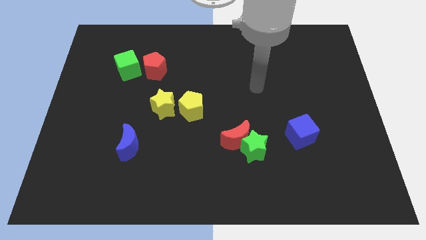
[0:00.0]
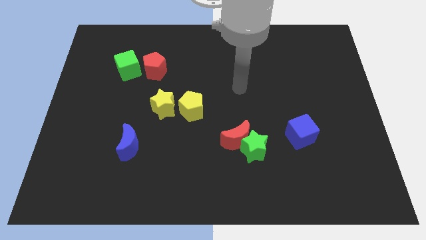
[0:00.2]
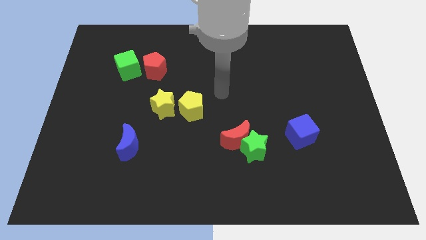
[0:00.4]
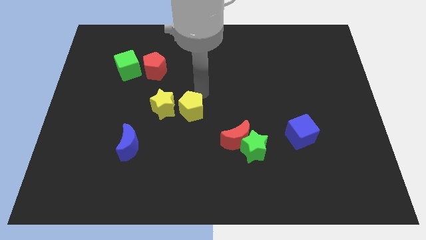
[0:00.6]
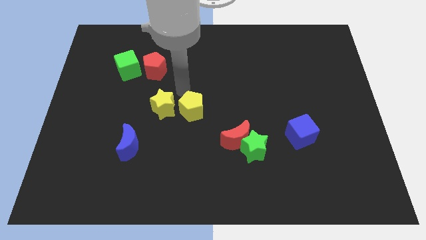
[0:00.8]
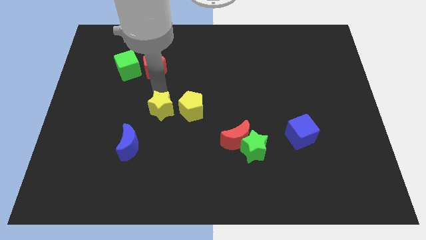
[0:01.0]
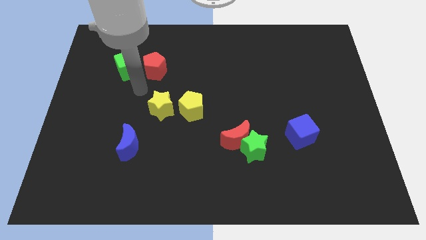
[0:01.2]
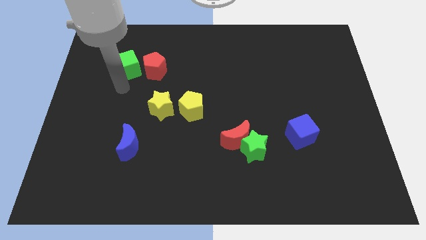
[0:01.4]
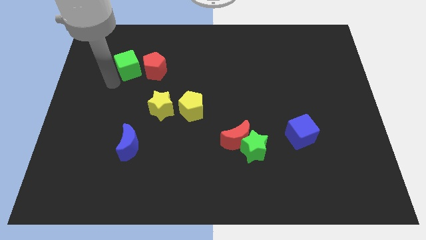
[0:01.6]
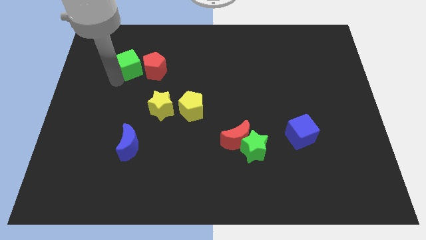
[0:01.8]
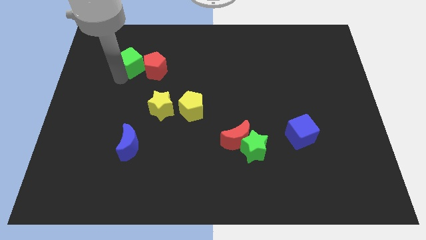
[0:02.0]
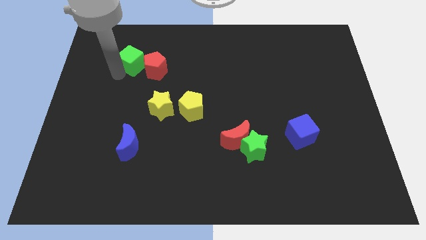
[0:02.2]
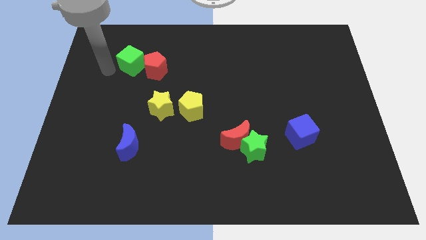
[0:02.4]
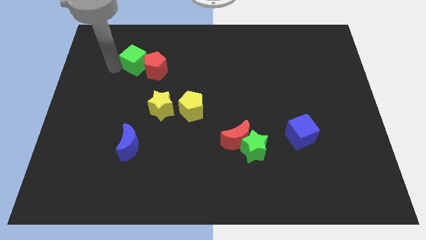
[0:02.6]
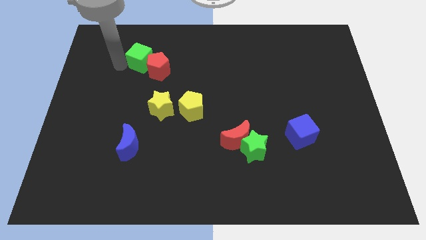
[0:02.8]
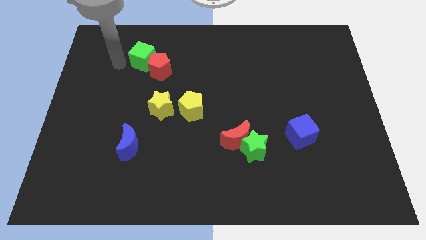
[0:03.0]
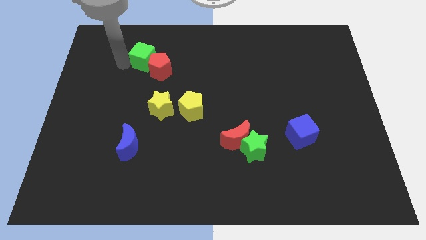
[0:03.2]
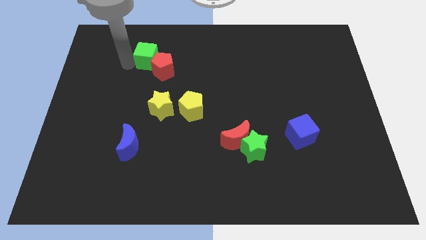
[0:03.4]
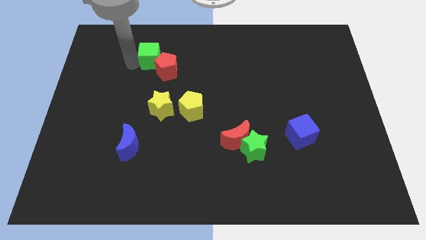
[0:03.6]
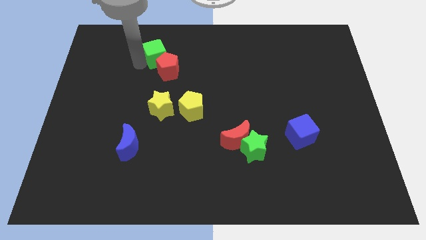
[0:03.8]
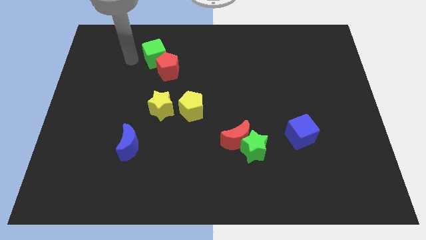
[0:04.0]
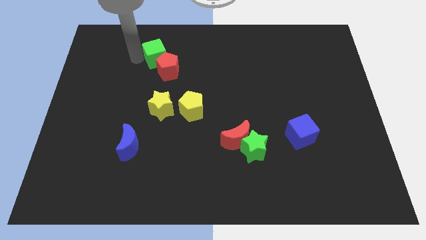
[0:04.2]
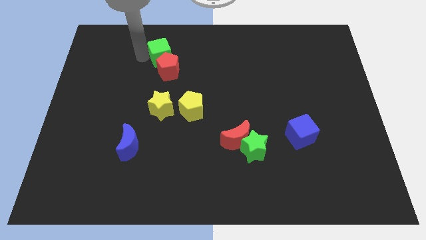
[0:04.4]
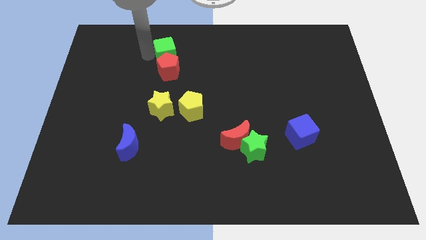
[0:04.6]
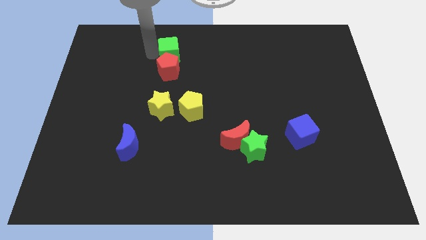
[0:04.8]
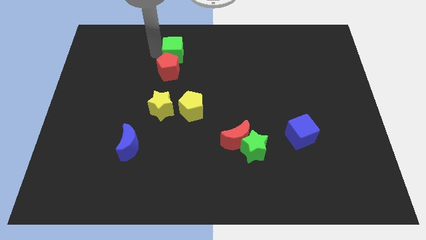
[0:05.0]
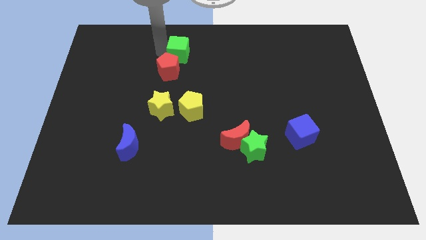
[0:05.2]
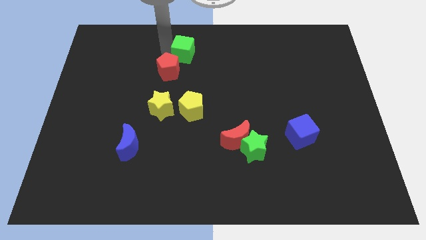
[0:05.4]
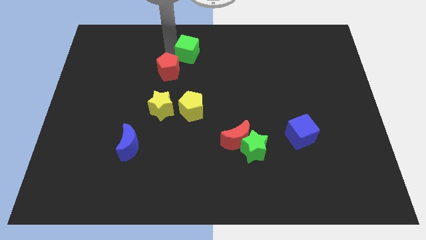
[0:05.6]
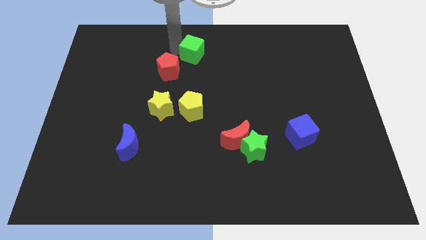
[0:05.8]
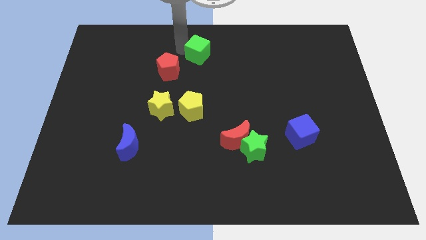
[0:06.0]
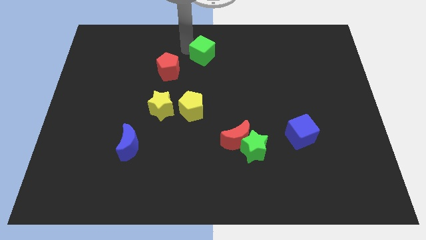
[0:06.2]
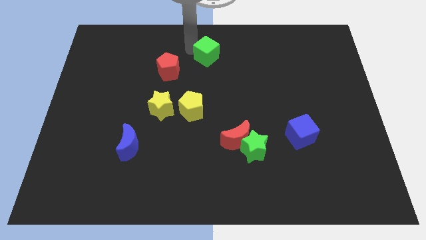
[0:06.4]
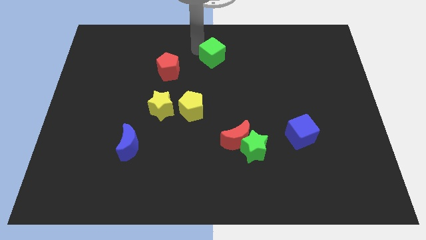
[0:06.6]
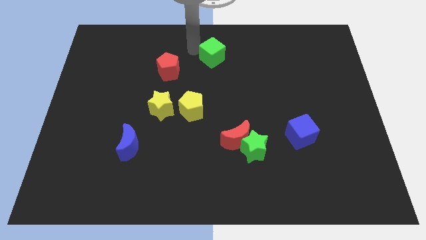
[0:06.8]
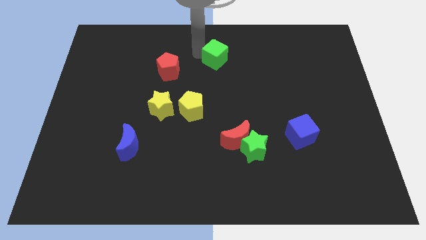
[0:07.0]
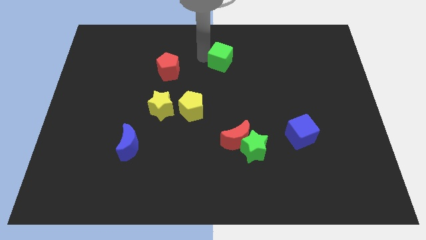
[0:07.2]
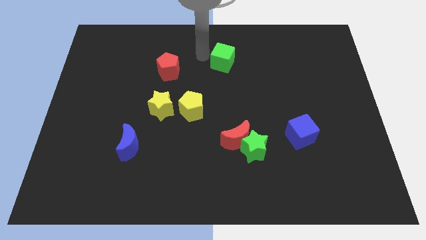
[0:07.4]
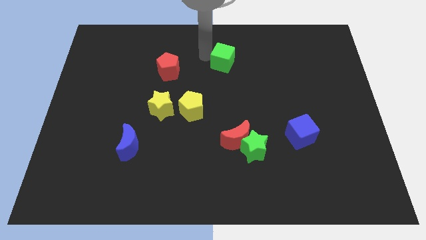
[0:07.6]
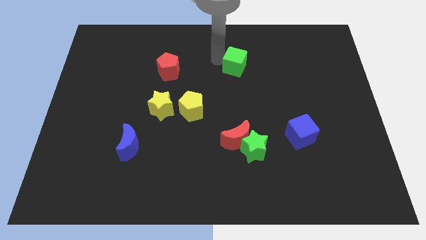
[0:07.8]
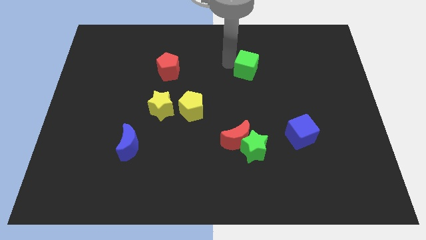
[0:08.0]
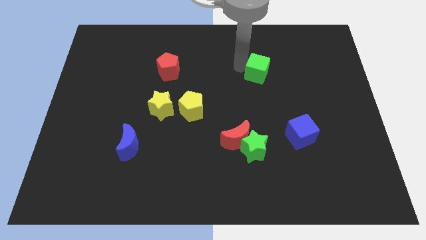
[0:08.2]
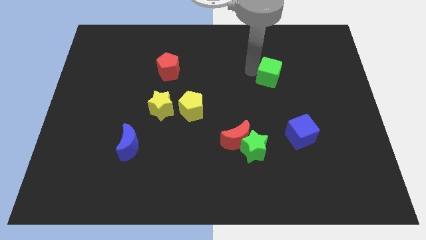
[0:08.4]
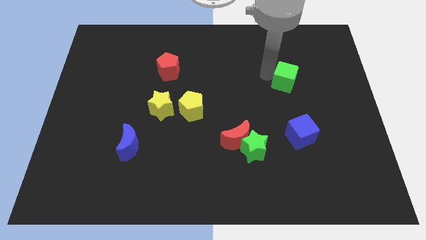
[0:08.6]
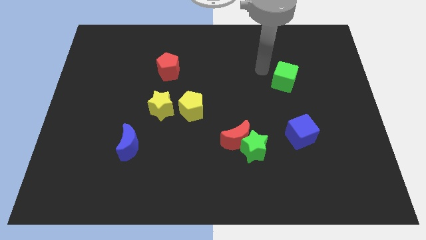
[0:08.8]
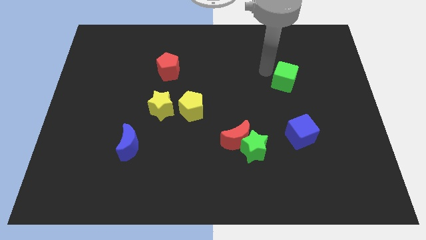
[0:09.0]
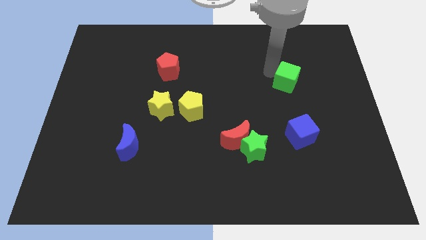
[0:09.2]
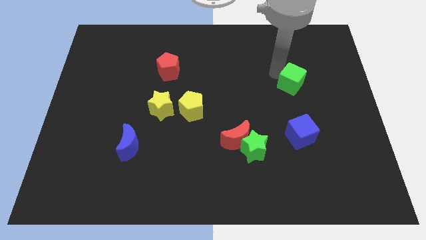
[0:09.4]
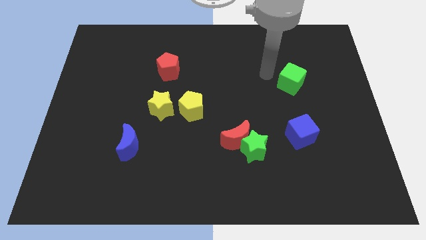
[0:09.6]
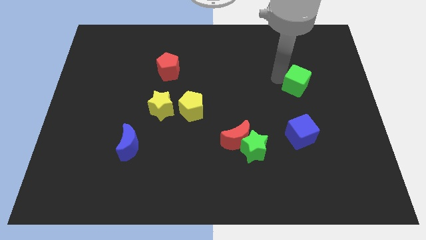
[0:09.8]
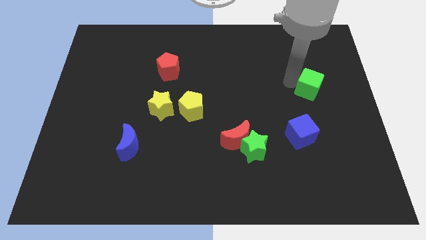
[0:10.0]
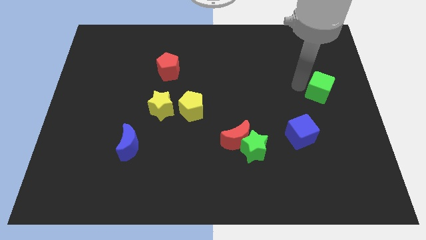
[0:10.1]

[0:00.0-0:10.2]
slide the green cube to the right side of the board

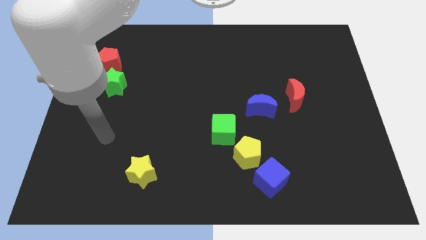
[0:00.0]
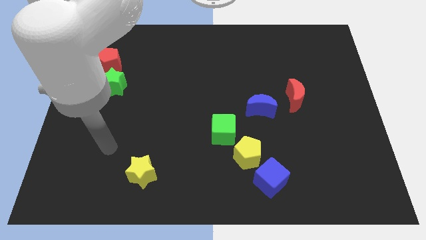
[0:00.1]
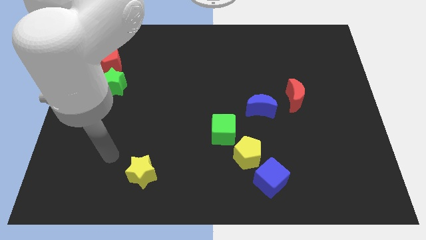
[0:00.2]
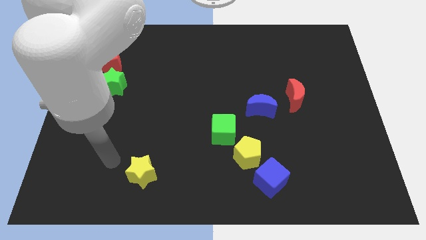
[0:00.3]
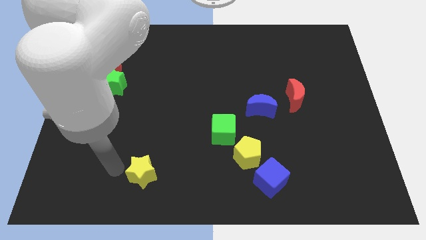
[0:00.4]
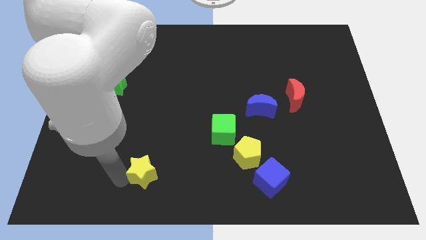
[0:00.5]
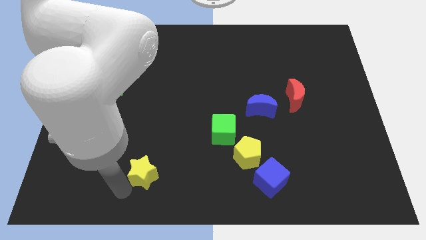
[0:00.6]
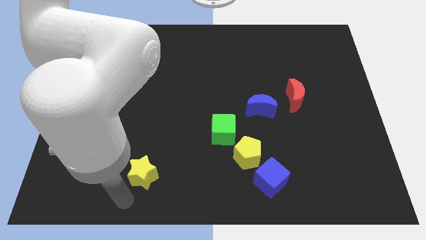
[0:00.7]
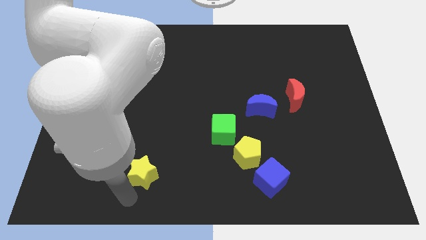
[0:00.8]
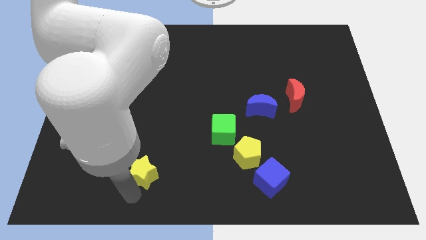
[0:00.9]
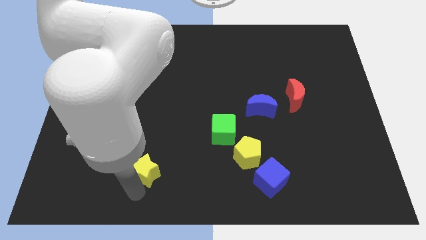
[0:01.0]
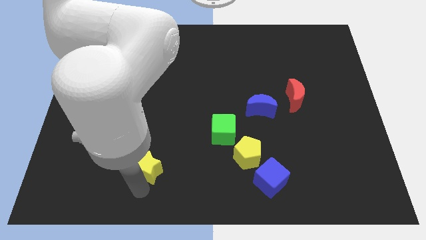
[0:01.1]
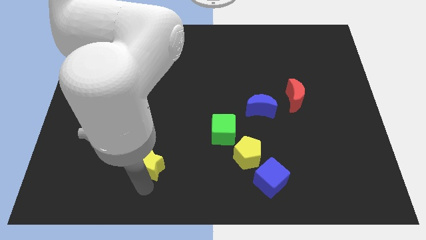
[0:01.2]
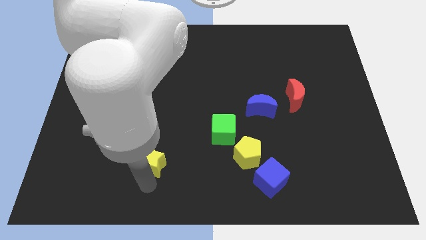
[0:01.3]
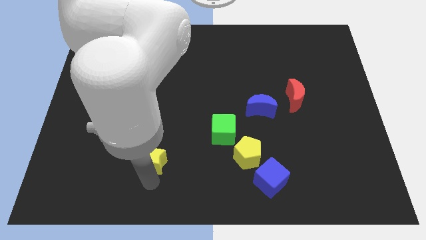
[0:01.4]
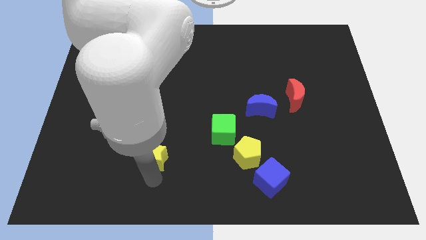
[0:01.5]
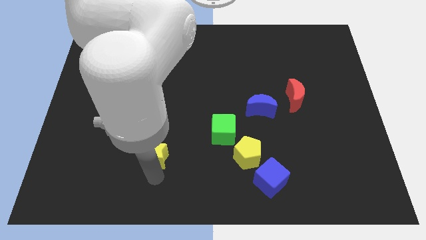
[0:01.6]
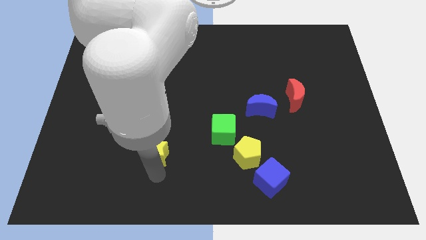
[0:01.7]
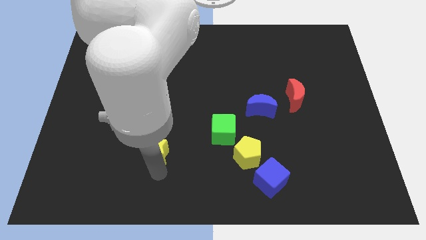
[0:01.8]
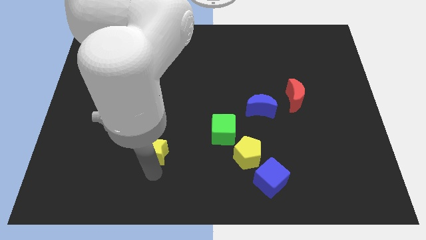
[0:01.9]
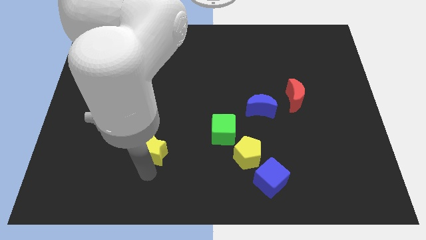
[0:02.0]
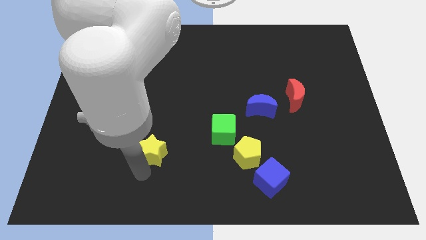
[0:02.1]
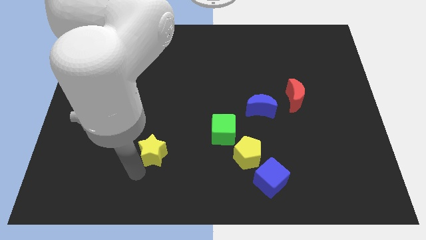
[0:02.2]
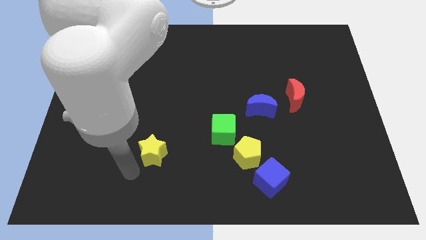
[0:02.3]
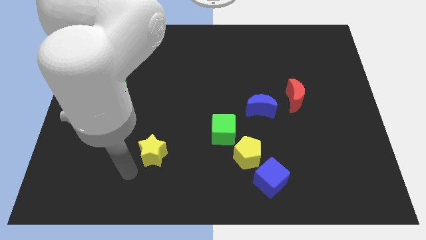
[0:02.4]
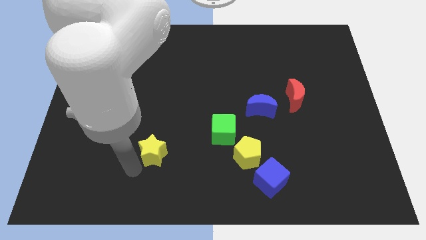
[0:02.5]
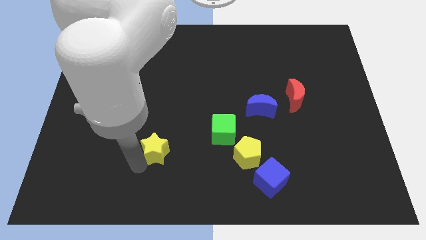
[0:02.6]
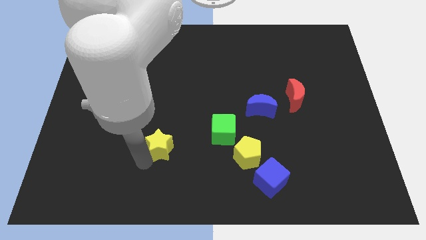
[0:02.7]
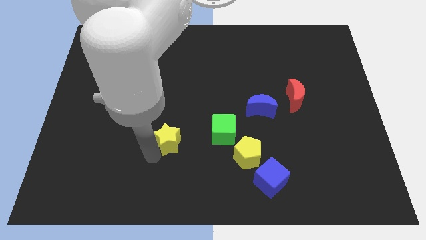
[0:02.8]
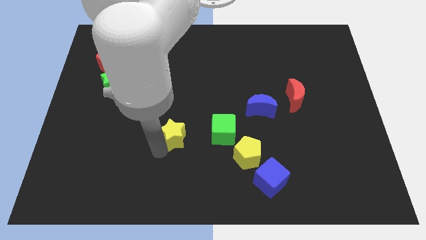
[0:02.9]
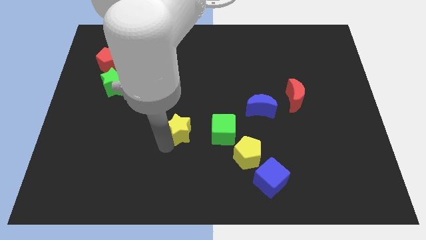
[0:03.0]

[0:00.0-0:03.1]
push the yellow star to the center of the board
